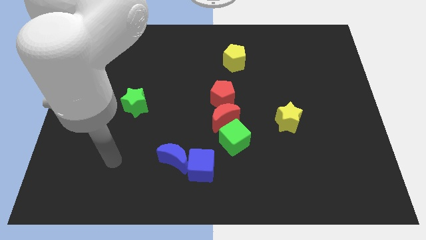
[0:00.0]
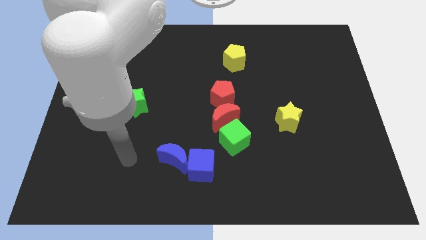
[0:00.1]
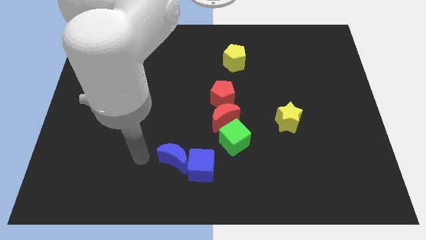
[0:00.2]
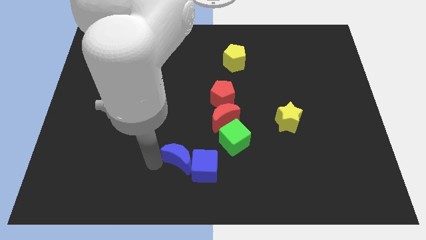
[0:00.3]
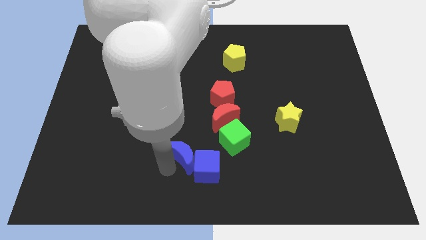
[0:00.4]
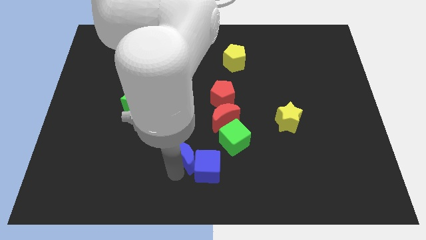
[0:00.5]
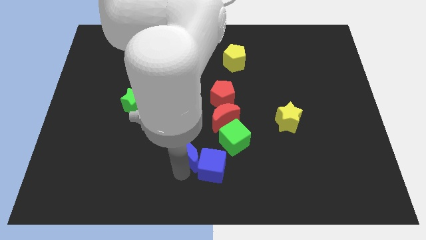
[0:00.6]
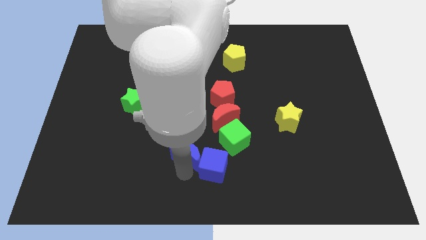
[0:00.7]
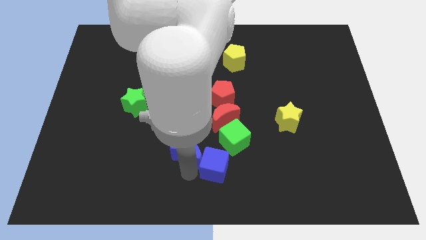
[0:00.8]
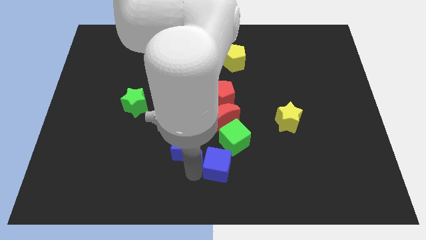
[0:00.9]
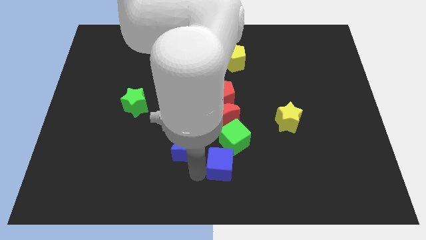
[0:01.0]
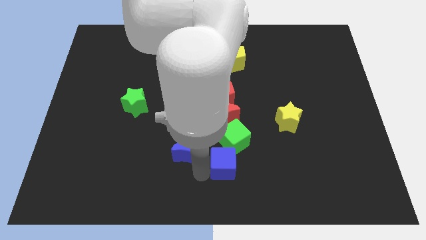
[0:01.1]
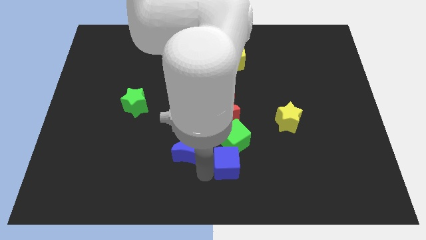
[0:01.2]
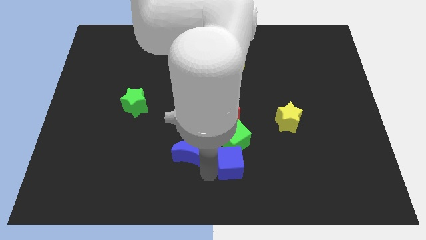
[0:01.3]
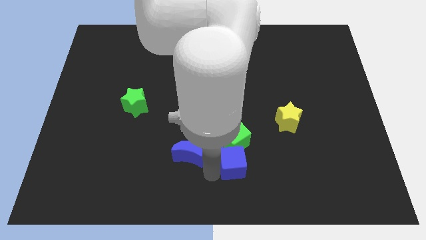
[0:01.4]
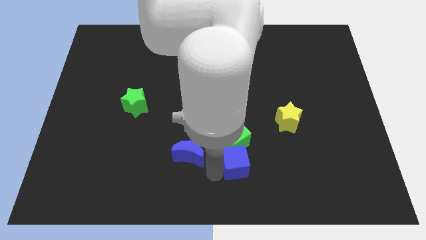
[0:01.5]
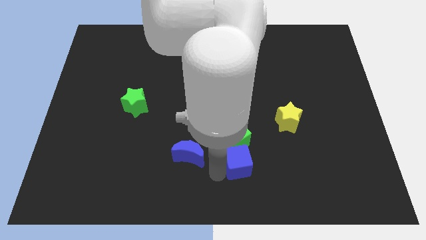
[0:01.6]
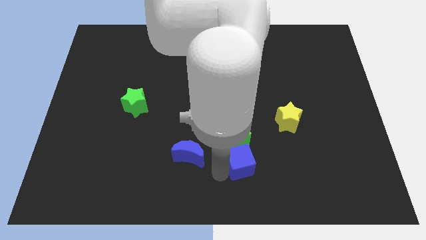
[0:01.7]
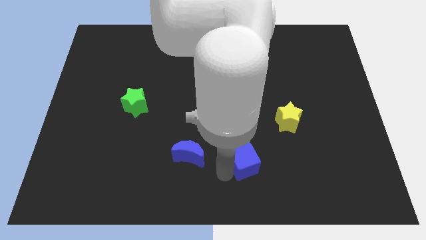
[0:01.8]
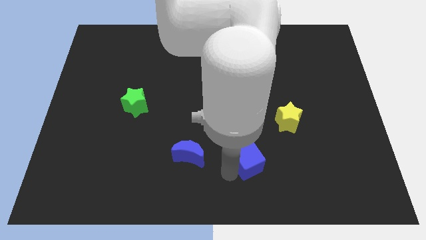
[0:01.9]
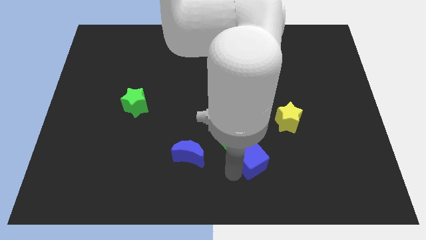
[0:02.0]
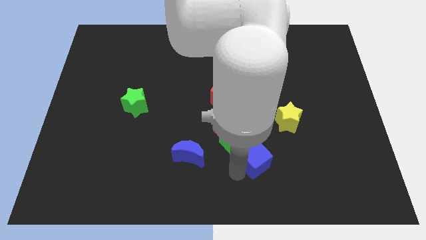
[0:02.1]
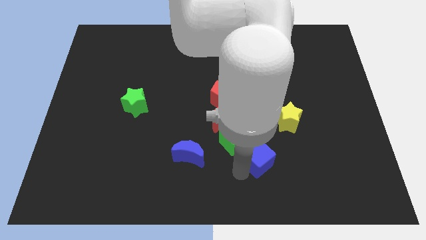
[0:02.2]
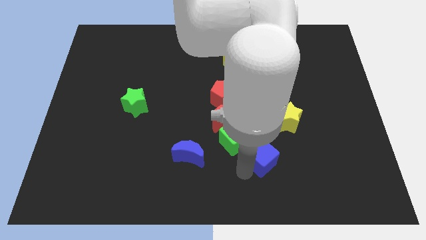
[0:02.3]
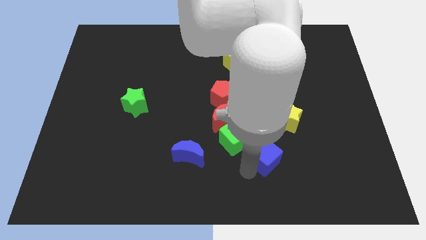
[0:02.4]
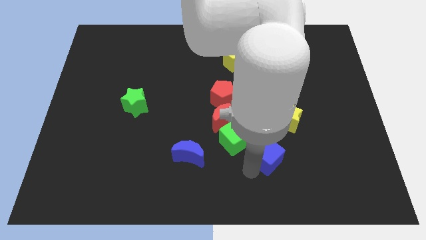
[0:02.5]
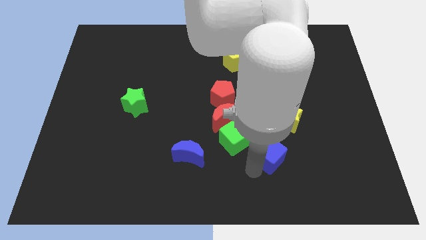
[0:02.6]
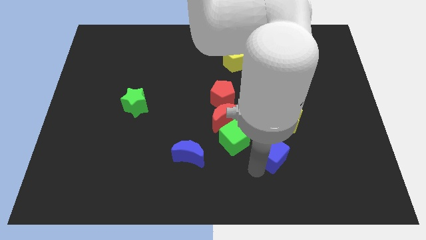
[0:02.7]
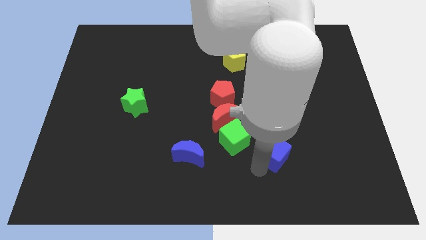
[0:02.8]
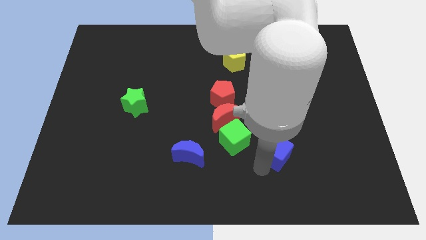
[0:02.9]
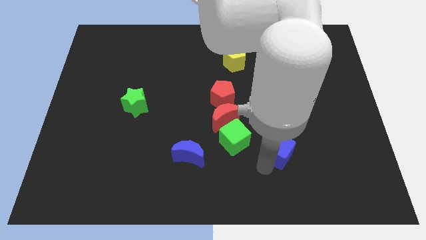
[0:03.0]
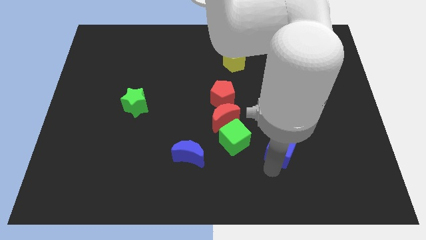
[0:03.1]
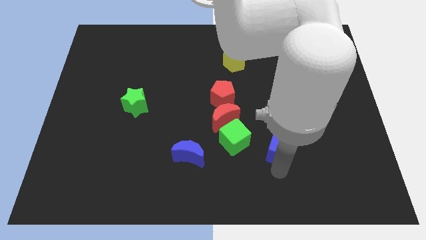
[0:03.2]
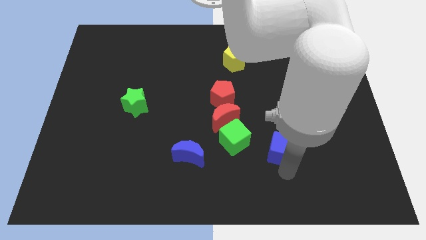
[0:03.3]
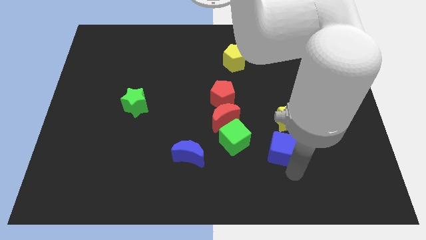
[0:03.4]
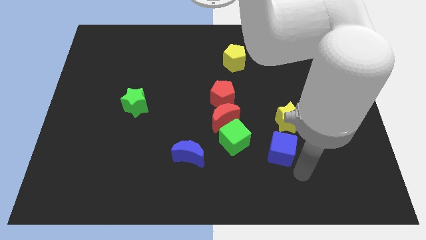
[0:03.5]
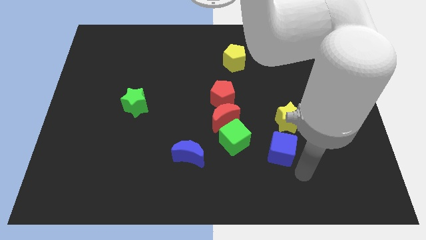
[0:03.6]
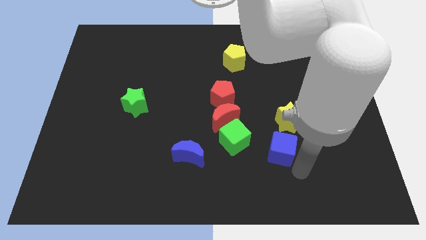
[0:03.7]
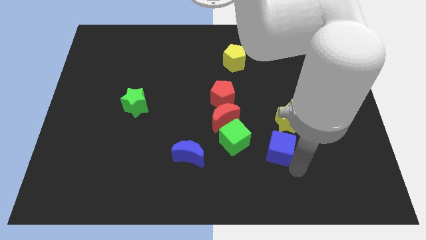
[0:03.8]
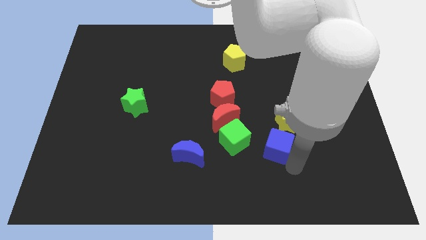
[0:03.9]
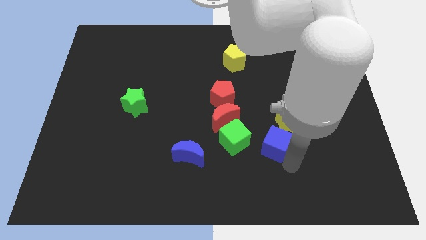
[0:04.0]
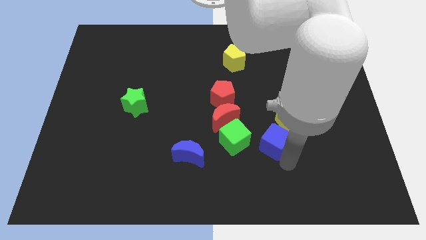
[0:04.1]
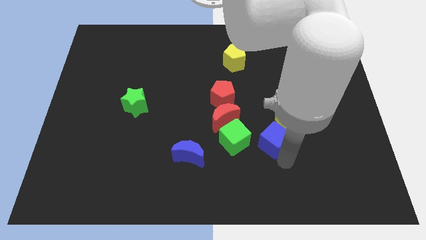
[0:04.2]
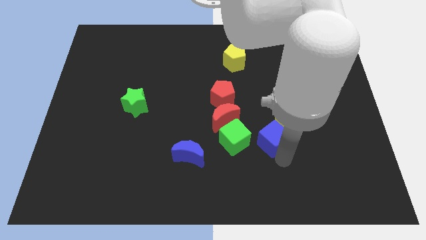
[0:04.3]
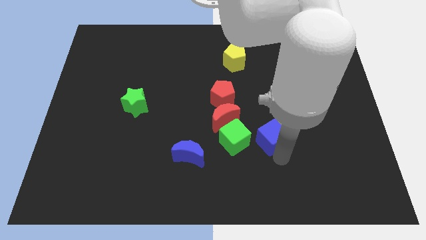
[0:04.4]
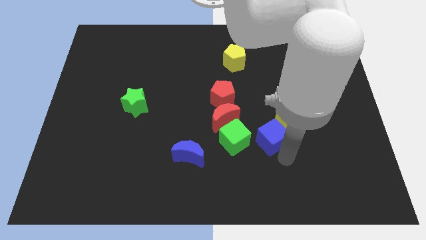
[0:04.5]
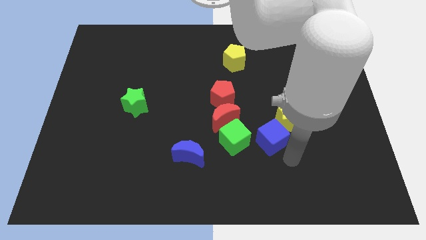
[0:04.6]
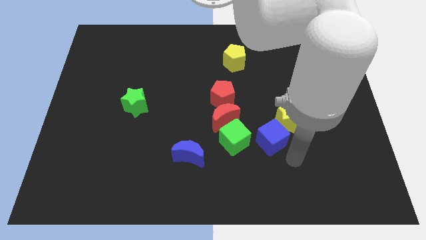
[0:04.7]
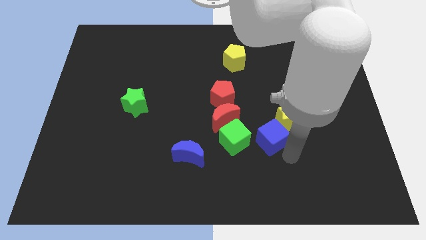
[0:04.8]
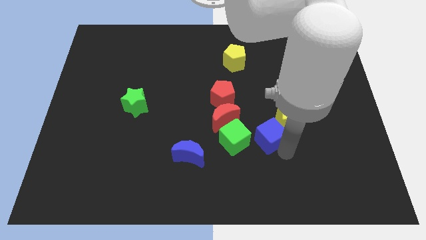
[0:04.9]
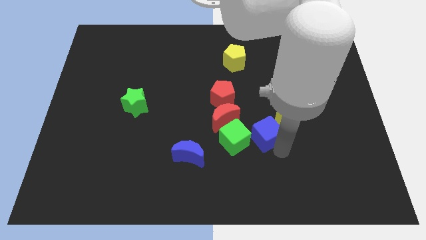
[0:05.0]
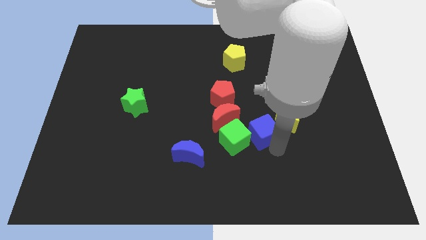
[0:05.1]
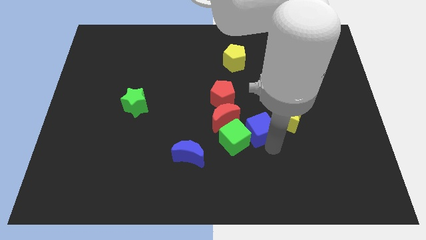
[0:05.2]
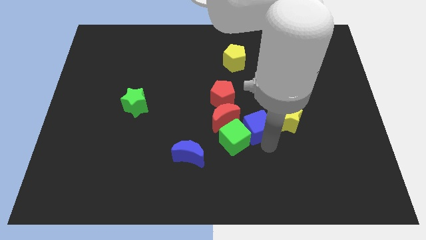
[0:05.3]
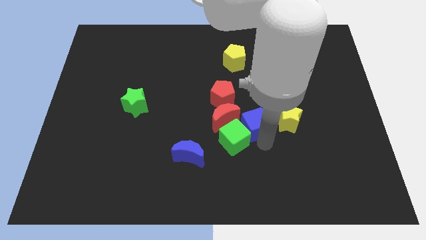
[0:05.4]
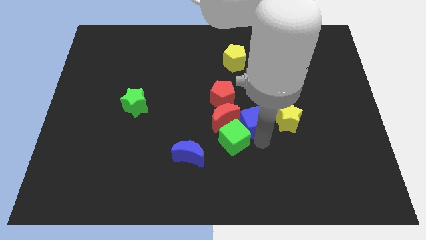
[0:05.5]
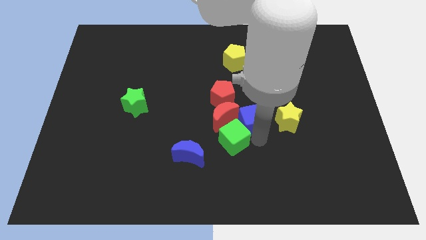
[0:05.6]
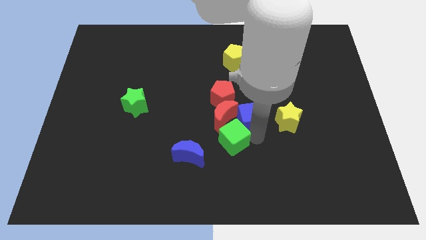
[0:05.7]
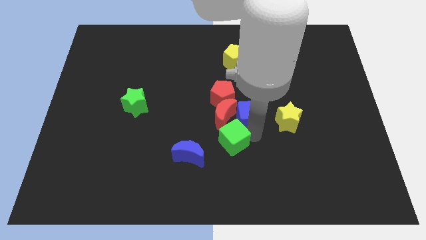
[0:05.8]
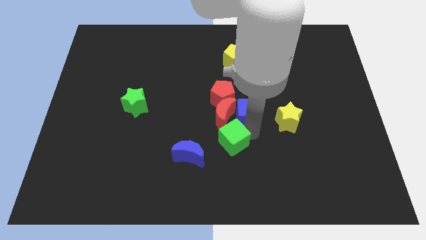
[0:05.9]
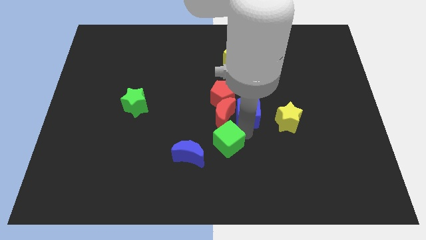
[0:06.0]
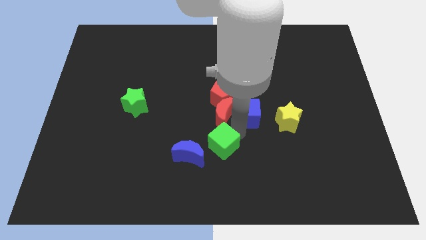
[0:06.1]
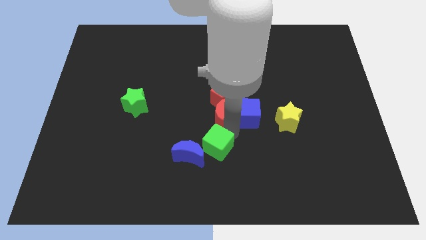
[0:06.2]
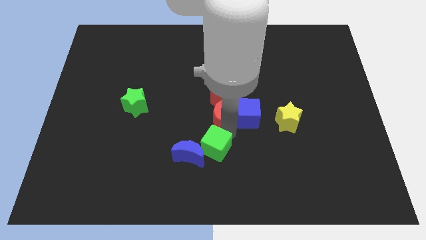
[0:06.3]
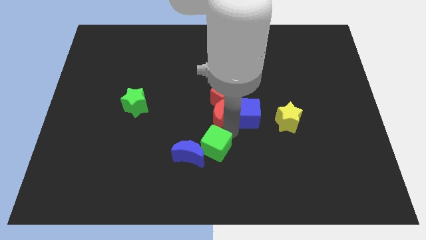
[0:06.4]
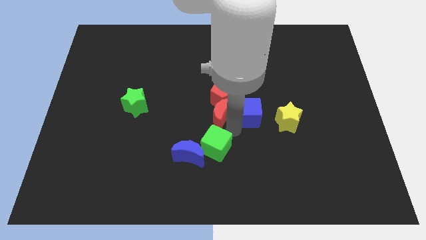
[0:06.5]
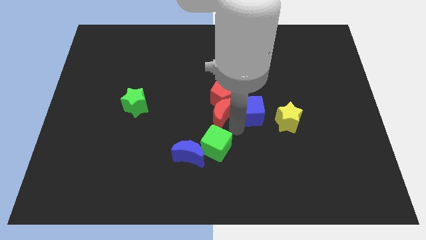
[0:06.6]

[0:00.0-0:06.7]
move the blue cube diagonally up and to the left of the yellow star

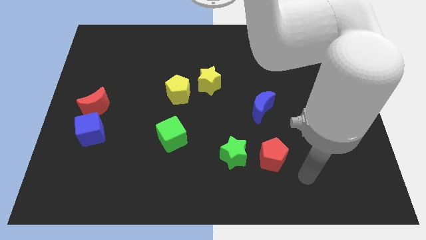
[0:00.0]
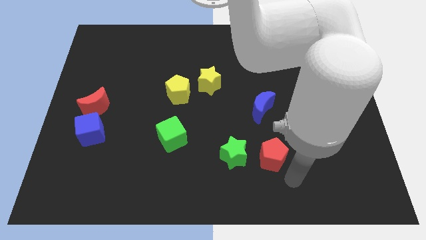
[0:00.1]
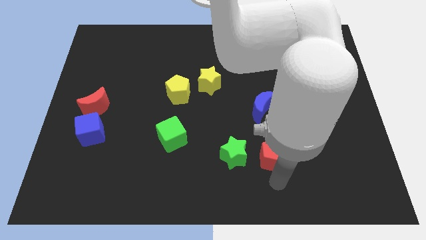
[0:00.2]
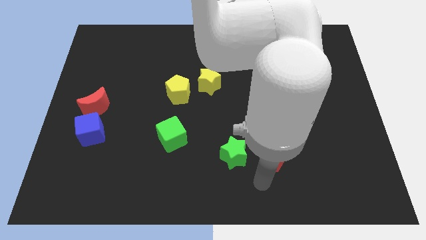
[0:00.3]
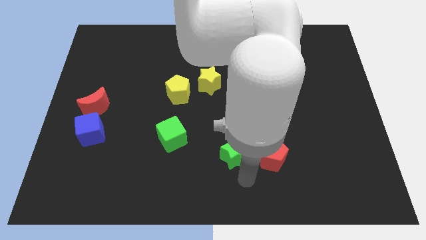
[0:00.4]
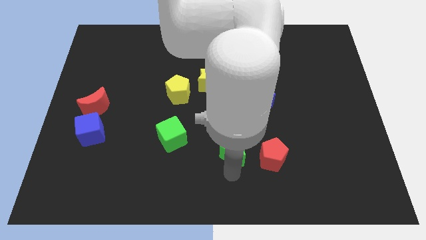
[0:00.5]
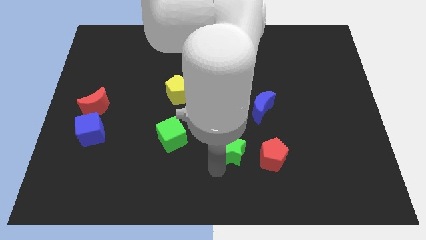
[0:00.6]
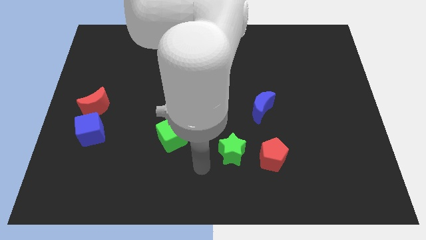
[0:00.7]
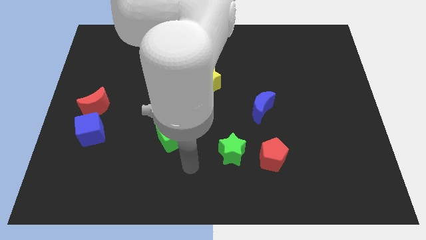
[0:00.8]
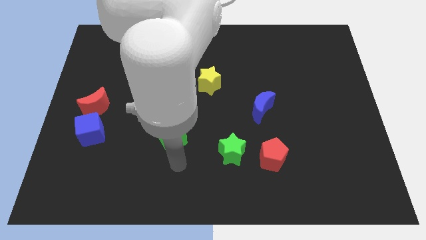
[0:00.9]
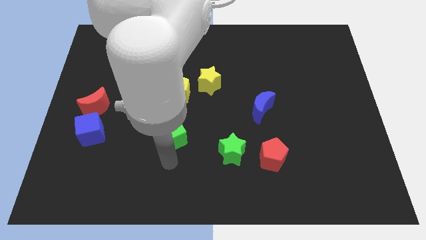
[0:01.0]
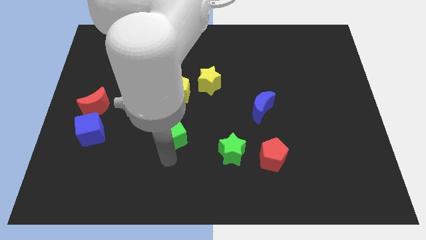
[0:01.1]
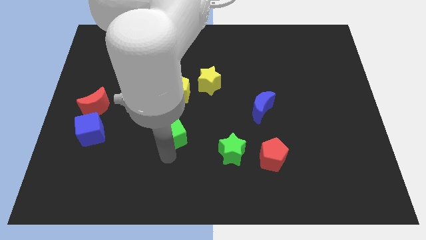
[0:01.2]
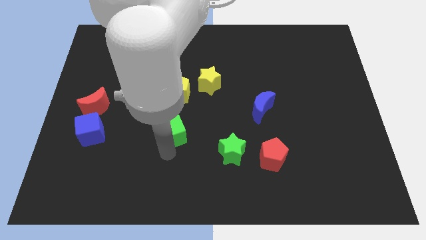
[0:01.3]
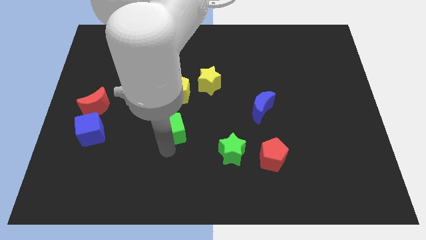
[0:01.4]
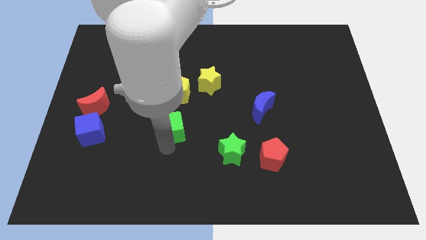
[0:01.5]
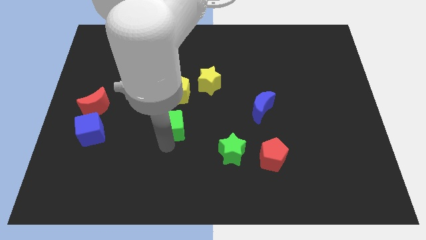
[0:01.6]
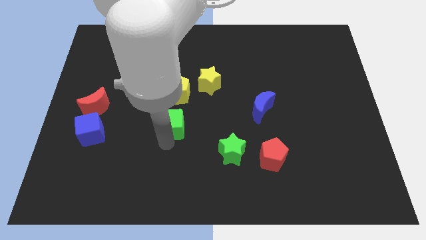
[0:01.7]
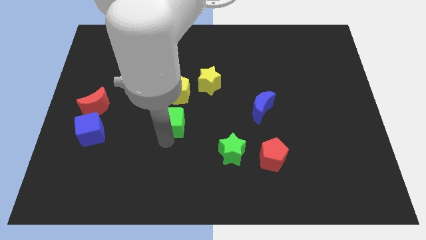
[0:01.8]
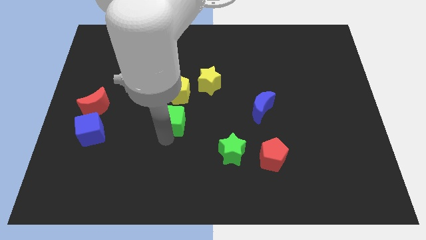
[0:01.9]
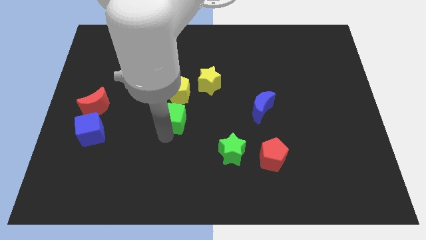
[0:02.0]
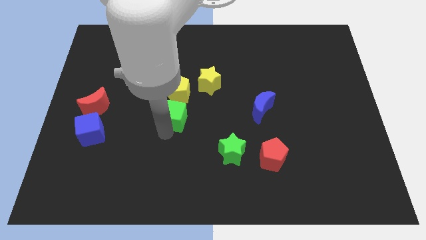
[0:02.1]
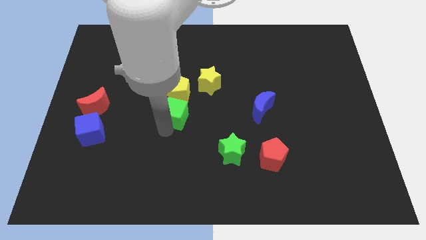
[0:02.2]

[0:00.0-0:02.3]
put the green cube to the bottom left side of the yellow star

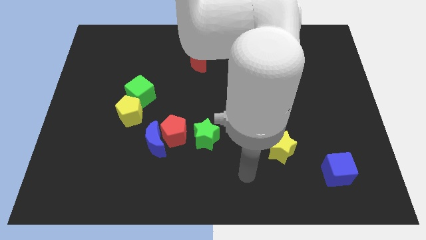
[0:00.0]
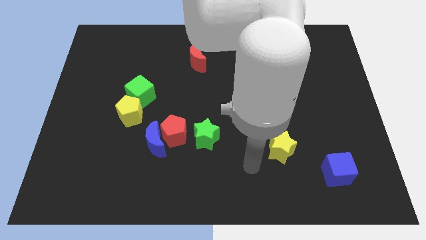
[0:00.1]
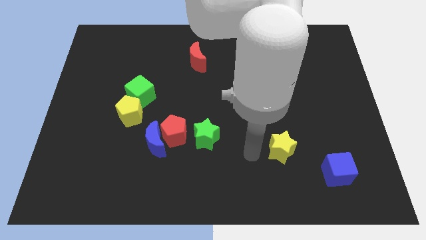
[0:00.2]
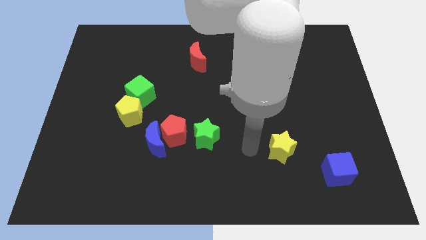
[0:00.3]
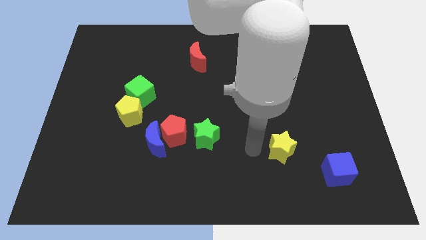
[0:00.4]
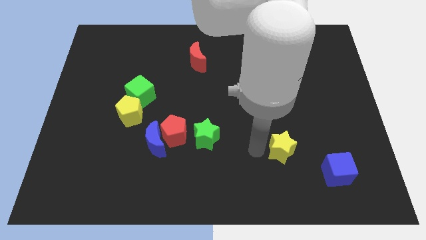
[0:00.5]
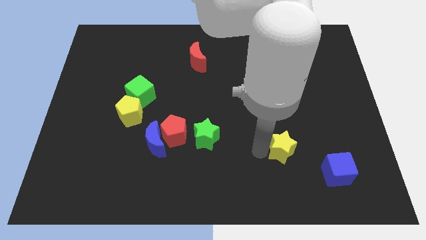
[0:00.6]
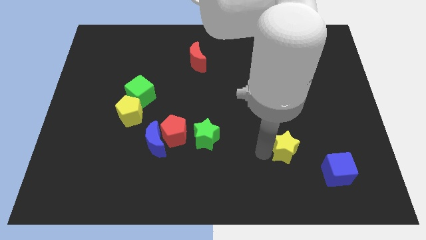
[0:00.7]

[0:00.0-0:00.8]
move the yellow star diagonally up and to the left of the blue cube
